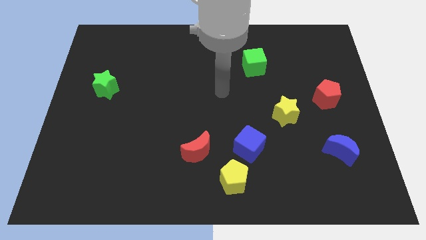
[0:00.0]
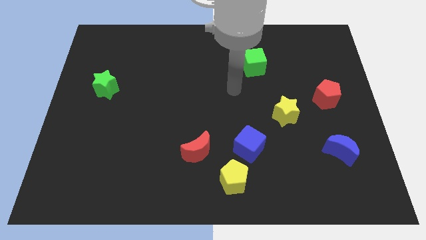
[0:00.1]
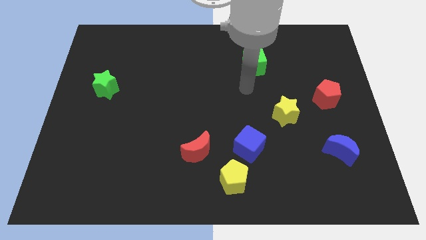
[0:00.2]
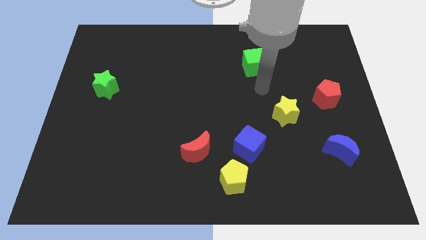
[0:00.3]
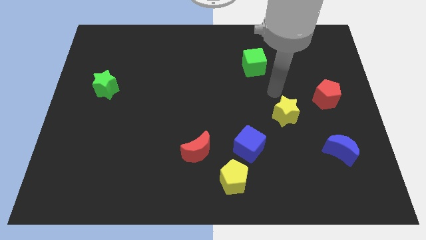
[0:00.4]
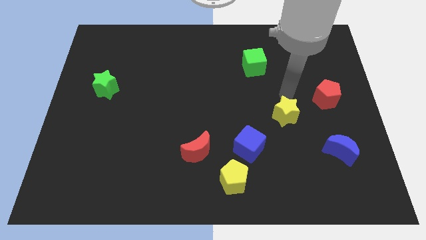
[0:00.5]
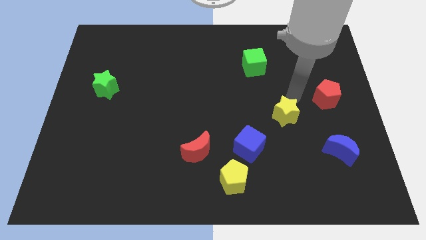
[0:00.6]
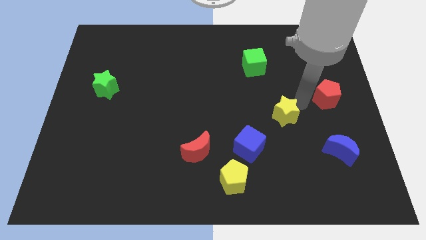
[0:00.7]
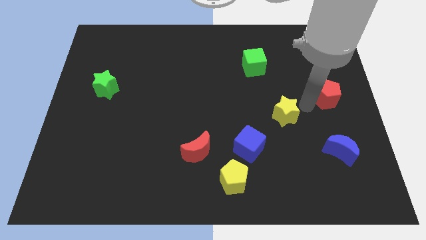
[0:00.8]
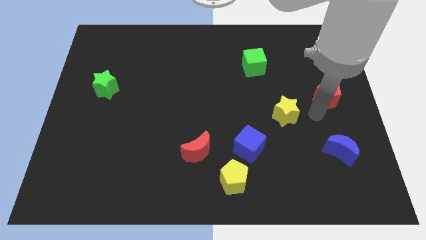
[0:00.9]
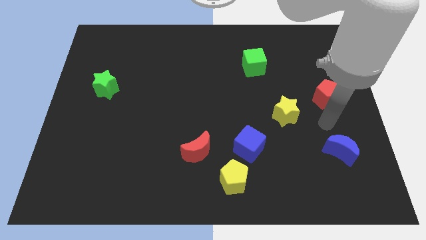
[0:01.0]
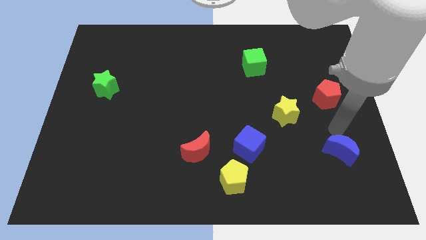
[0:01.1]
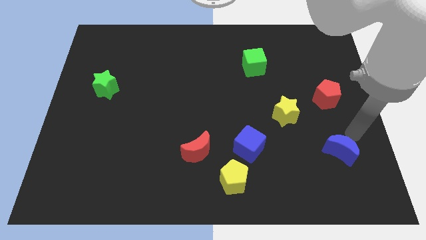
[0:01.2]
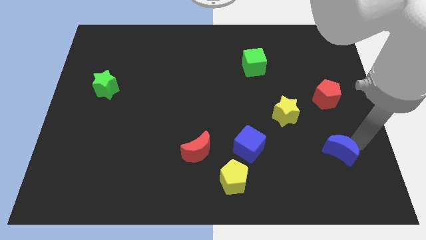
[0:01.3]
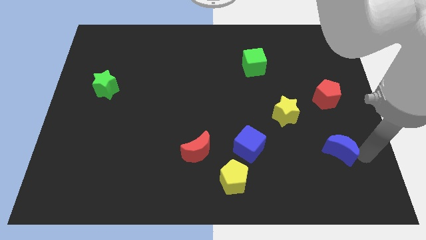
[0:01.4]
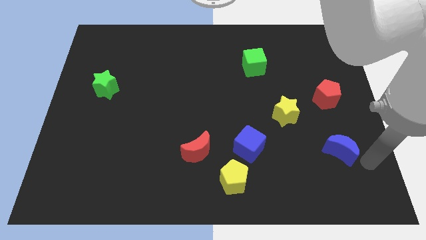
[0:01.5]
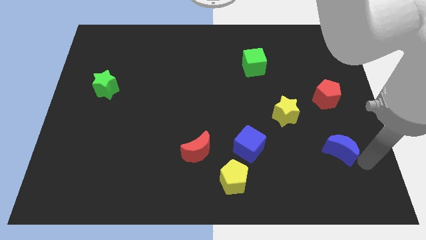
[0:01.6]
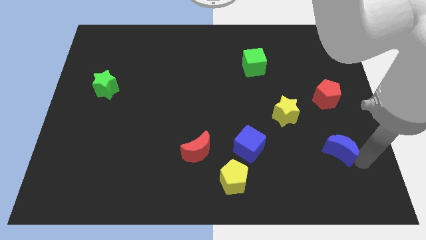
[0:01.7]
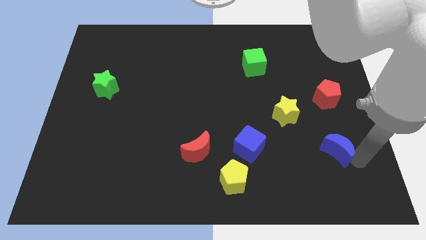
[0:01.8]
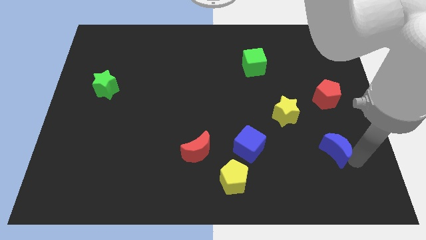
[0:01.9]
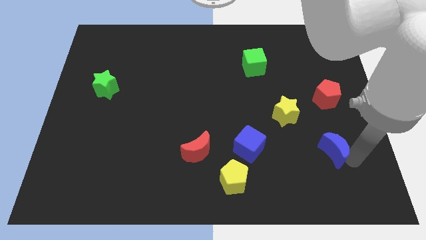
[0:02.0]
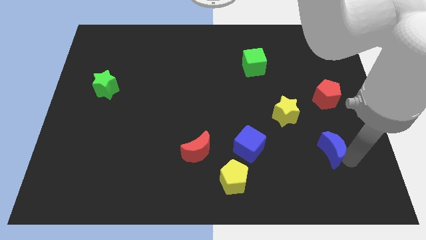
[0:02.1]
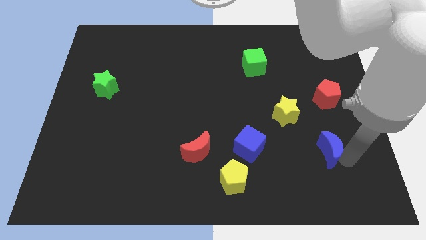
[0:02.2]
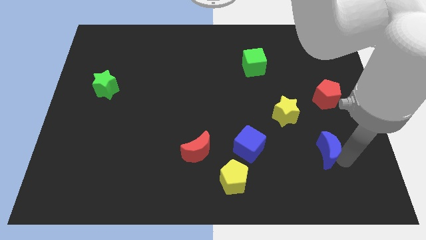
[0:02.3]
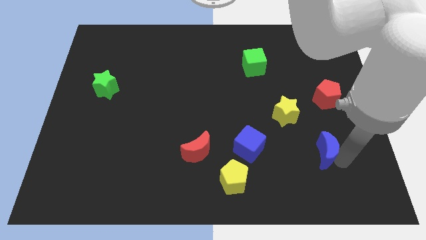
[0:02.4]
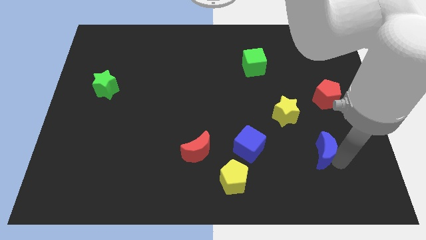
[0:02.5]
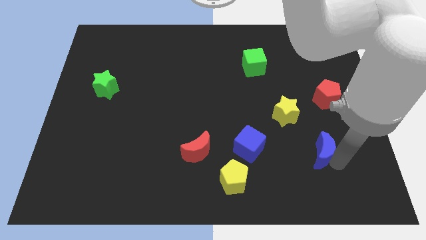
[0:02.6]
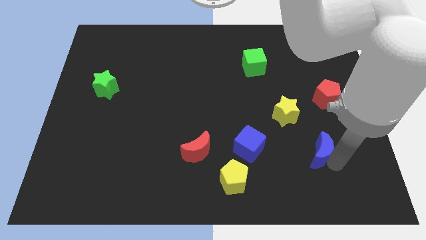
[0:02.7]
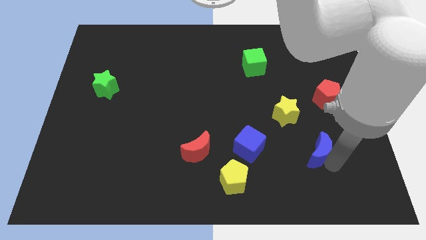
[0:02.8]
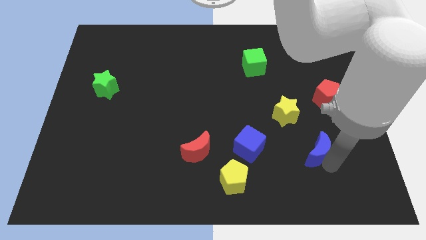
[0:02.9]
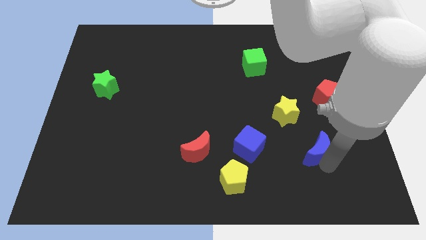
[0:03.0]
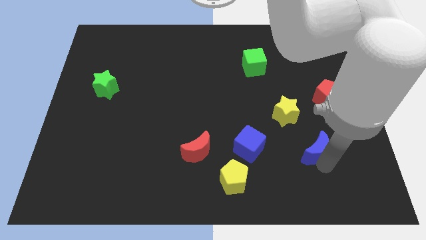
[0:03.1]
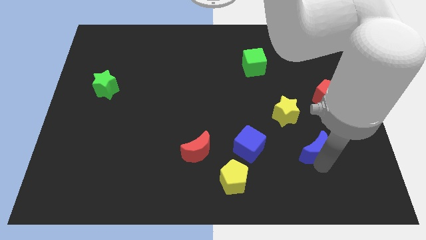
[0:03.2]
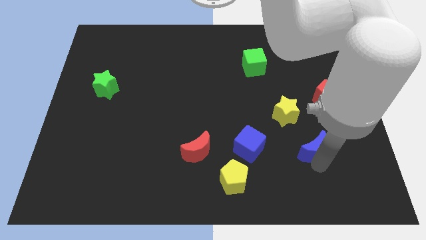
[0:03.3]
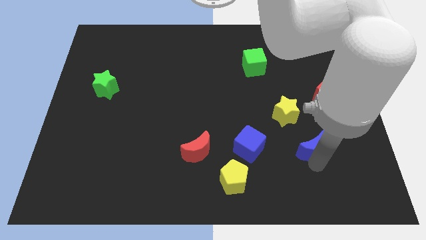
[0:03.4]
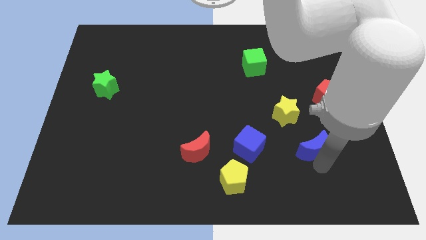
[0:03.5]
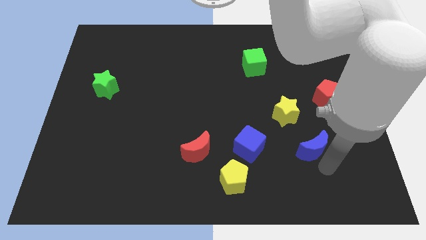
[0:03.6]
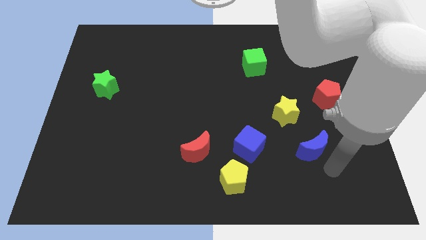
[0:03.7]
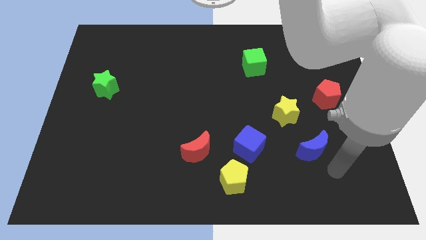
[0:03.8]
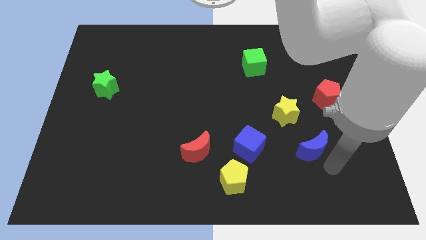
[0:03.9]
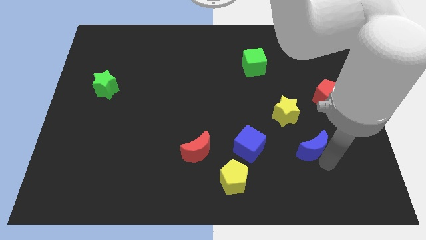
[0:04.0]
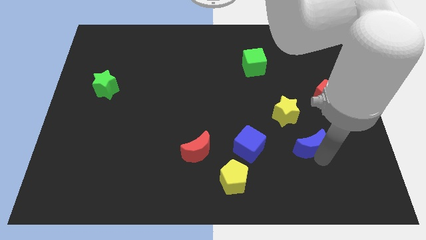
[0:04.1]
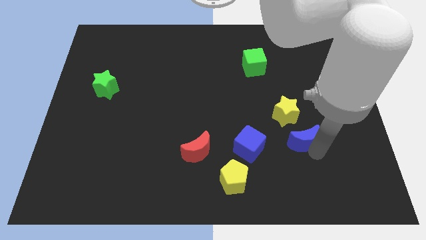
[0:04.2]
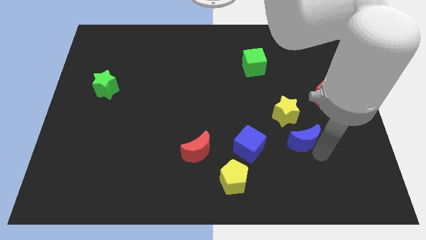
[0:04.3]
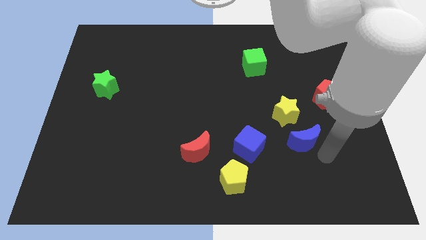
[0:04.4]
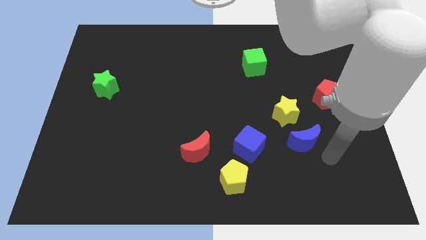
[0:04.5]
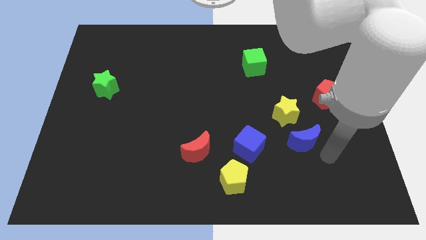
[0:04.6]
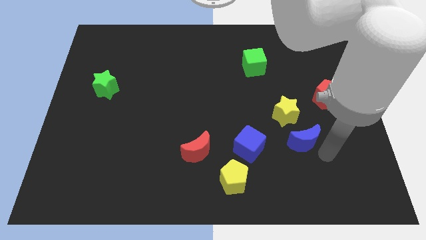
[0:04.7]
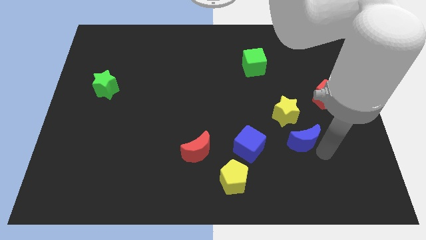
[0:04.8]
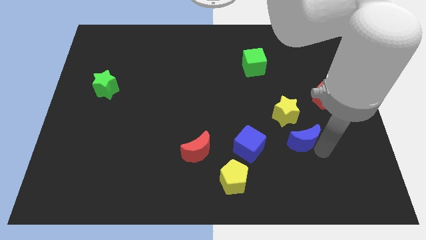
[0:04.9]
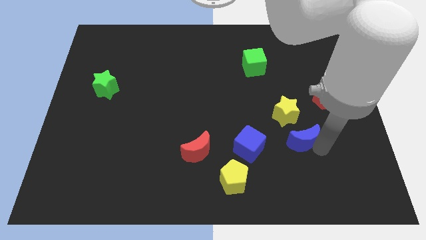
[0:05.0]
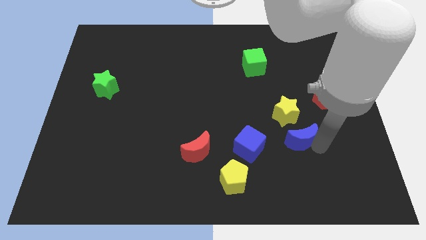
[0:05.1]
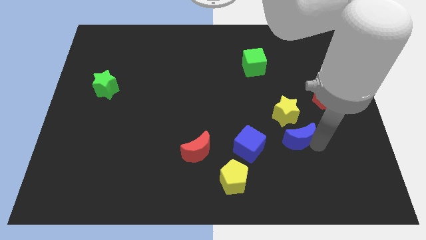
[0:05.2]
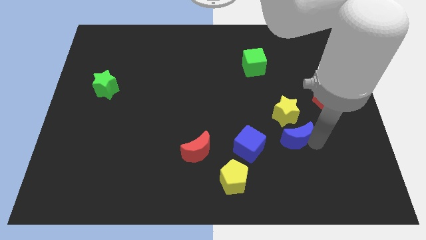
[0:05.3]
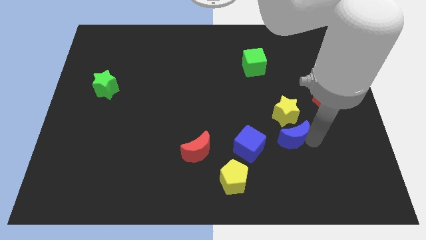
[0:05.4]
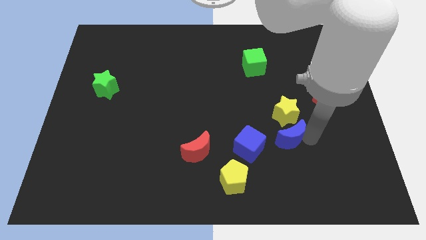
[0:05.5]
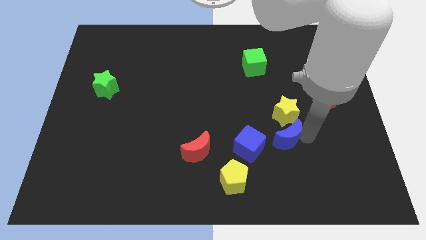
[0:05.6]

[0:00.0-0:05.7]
push the blue moon diagonally up and to the right of the blue cube

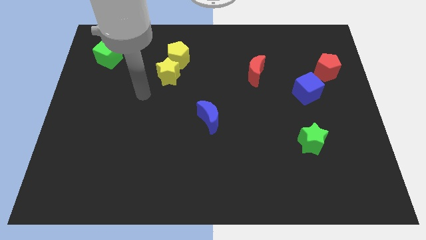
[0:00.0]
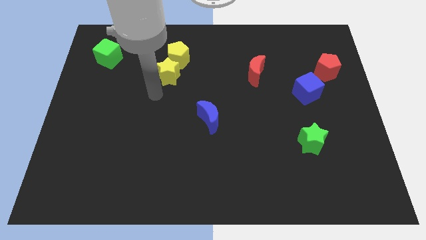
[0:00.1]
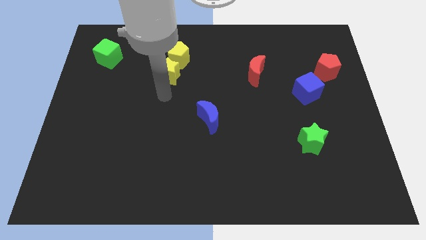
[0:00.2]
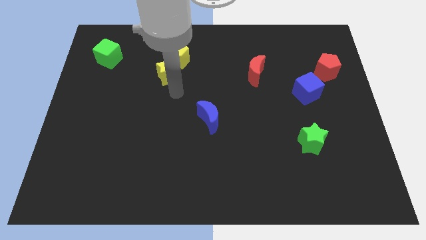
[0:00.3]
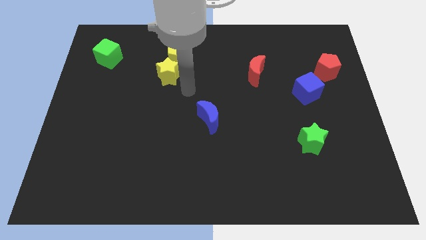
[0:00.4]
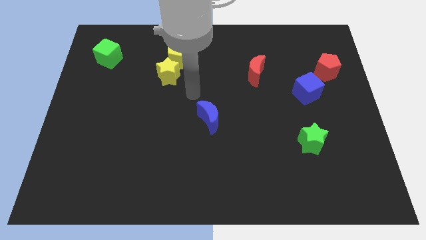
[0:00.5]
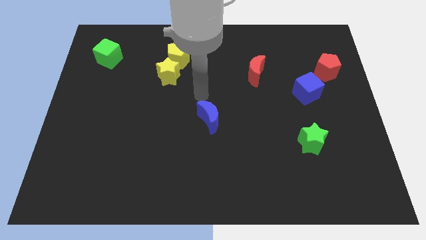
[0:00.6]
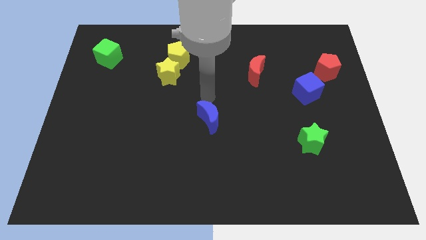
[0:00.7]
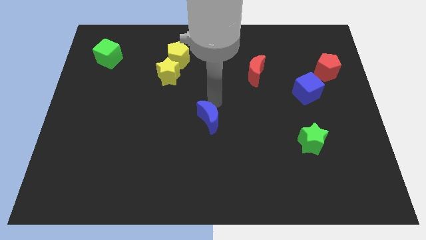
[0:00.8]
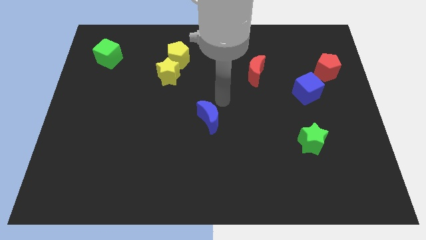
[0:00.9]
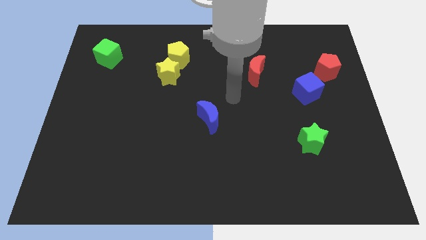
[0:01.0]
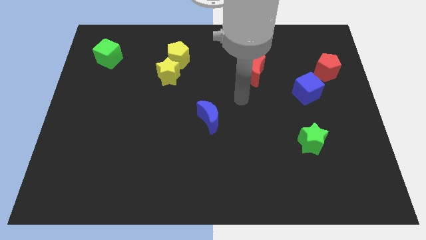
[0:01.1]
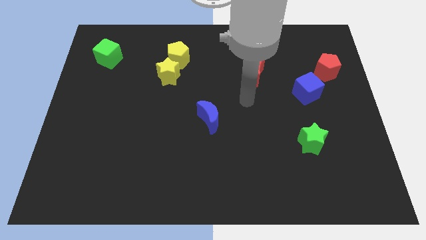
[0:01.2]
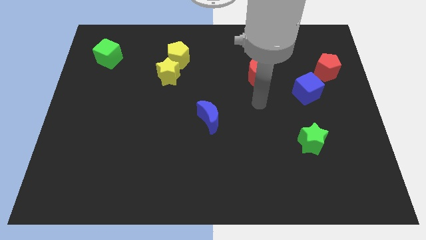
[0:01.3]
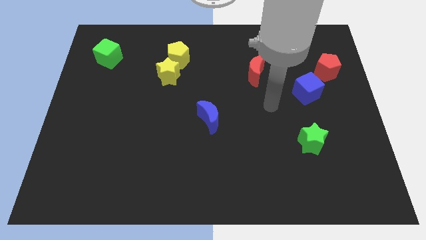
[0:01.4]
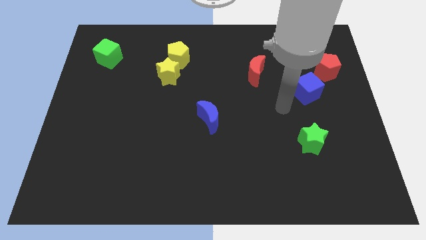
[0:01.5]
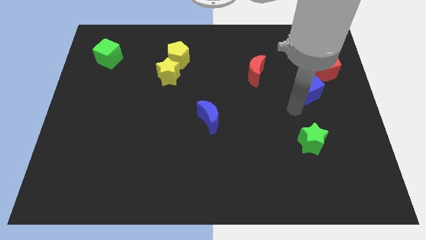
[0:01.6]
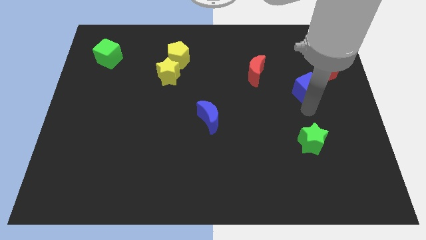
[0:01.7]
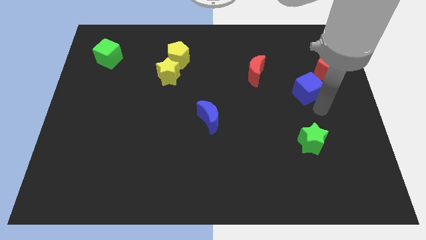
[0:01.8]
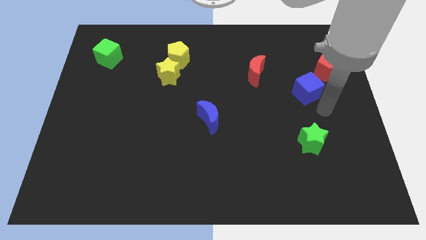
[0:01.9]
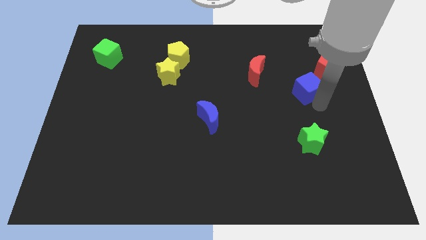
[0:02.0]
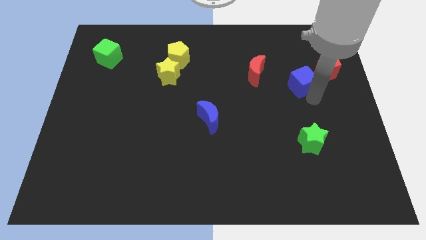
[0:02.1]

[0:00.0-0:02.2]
put the blue cube to the left side of the red pentagon
